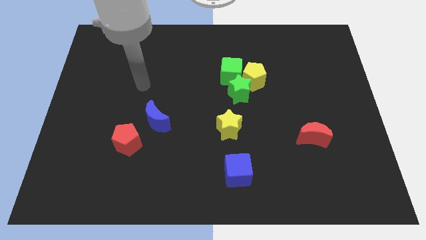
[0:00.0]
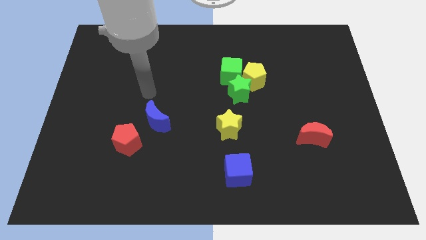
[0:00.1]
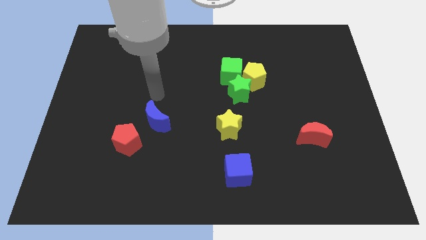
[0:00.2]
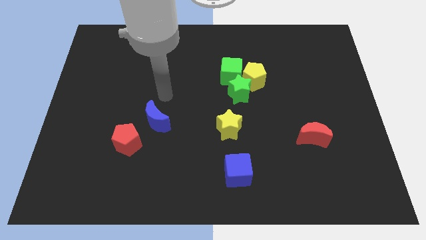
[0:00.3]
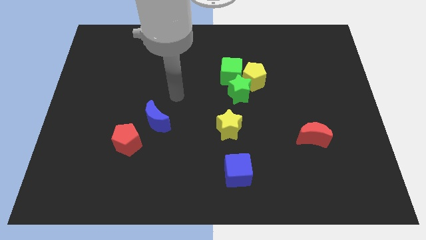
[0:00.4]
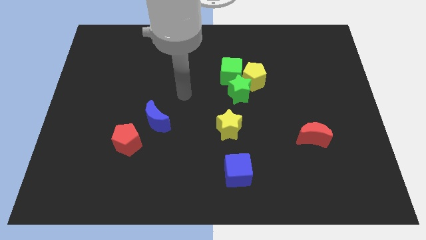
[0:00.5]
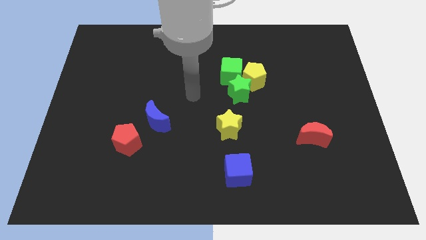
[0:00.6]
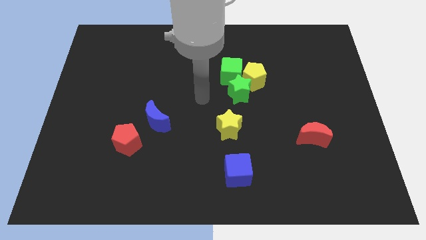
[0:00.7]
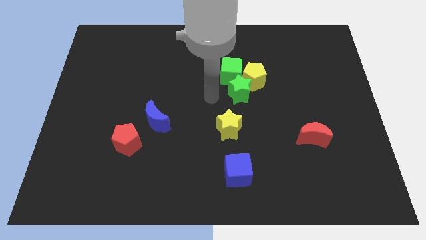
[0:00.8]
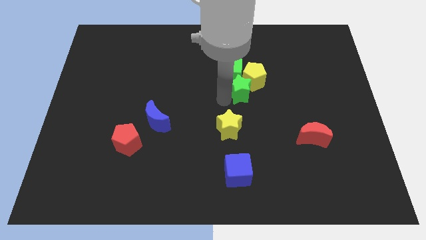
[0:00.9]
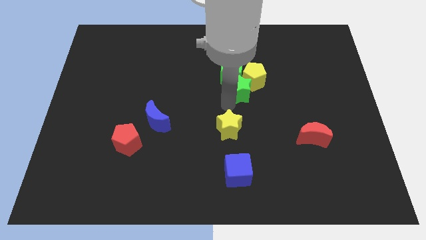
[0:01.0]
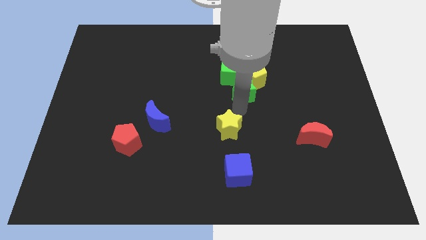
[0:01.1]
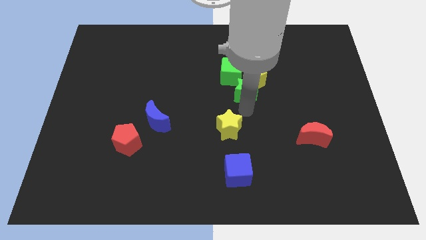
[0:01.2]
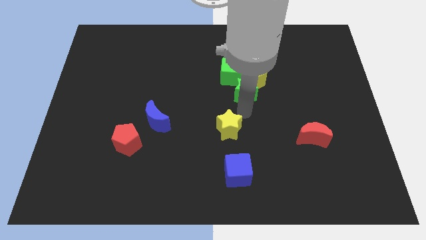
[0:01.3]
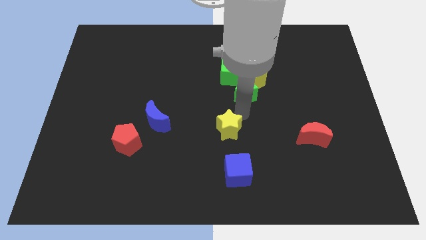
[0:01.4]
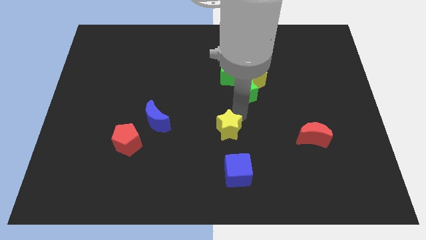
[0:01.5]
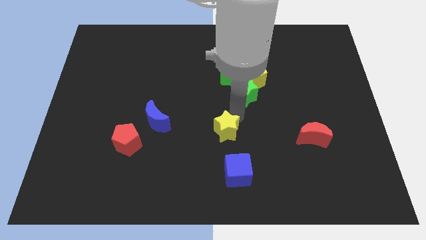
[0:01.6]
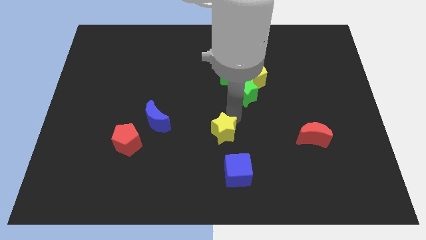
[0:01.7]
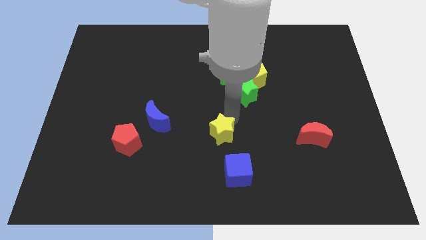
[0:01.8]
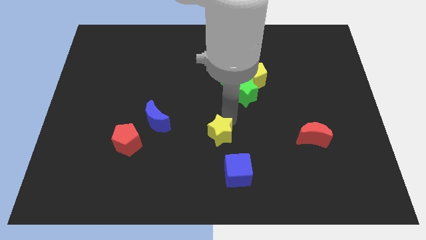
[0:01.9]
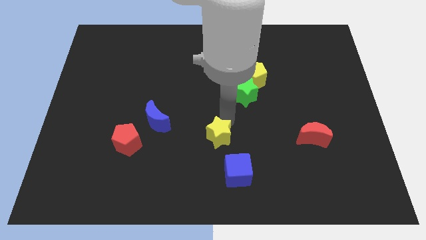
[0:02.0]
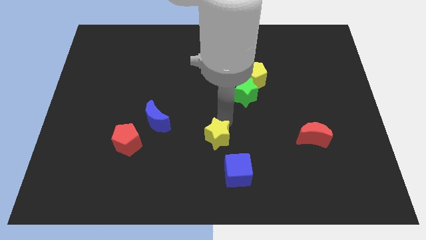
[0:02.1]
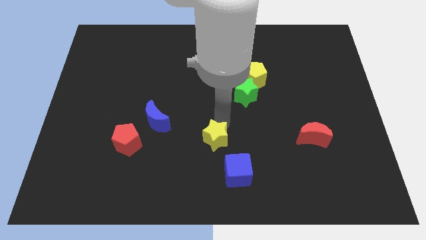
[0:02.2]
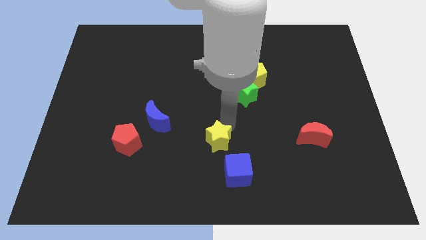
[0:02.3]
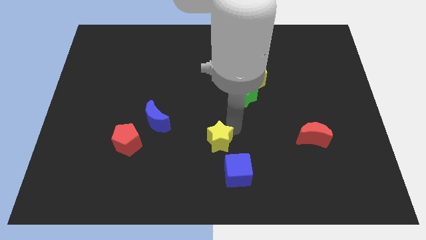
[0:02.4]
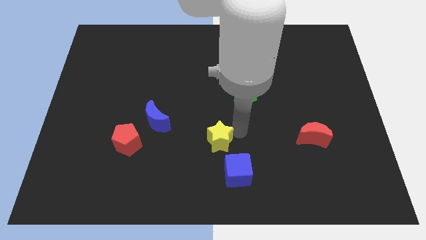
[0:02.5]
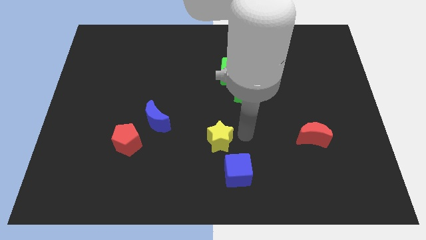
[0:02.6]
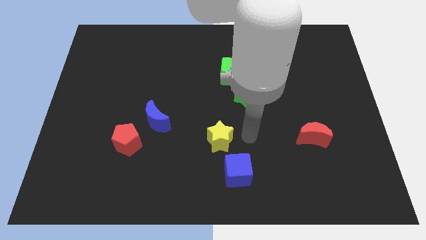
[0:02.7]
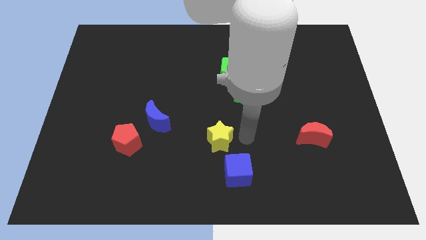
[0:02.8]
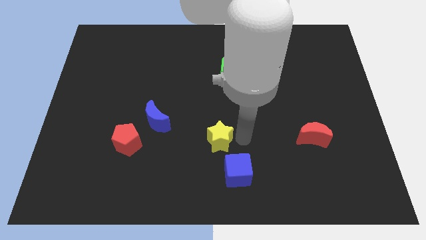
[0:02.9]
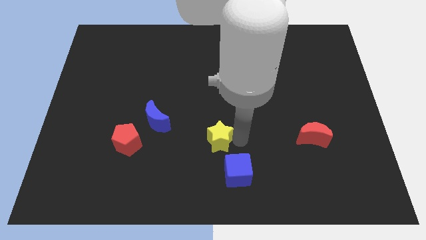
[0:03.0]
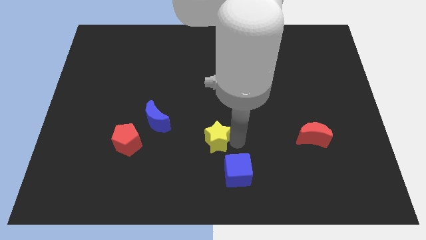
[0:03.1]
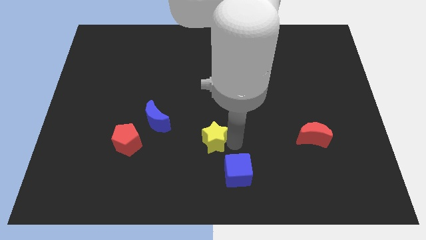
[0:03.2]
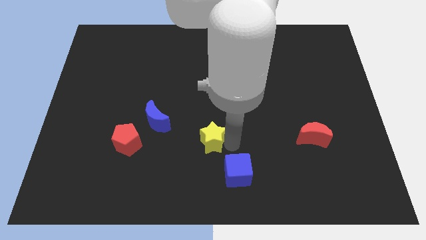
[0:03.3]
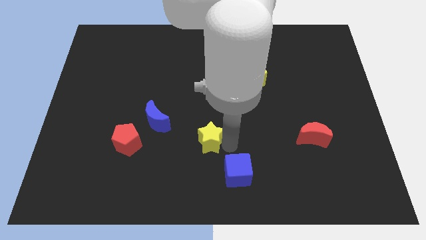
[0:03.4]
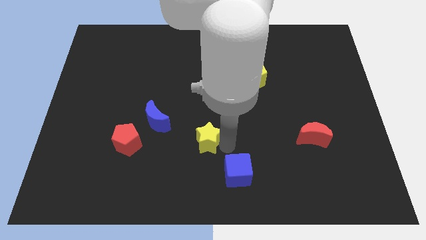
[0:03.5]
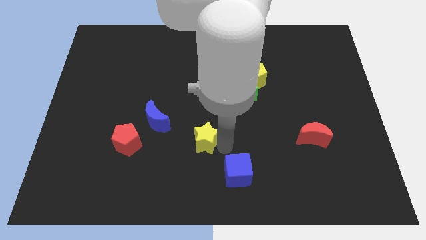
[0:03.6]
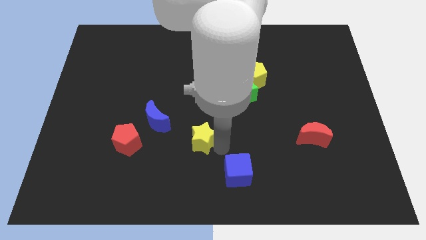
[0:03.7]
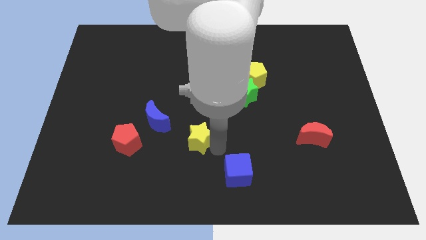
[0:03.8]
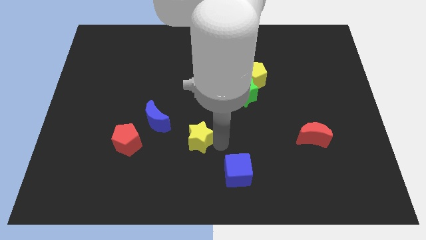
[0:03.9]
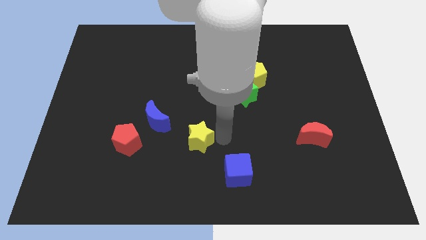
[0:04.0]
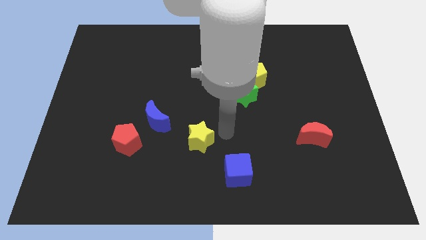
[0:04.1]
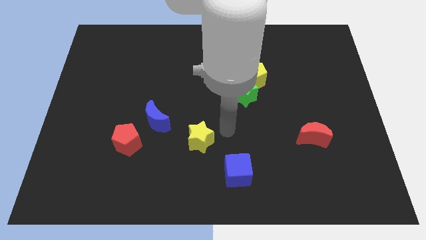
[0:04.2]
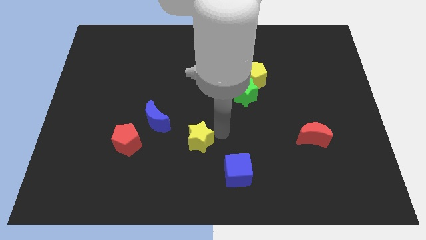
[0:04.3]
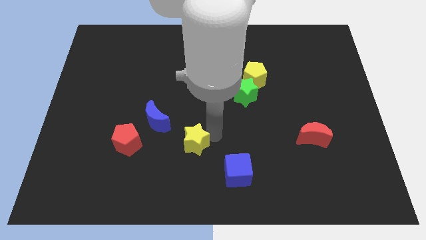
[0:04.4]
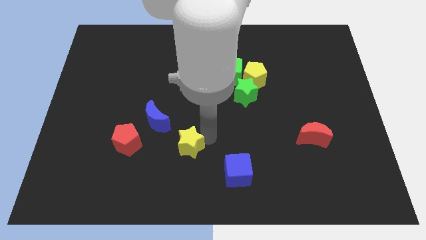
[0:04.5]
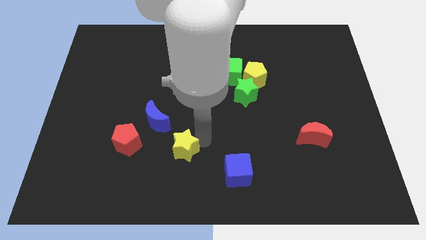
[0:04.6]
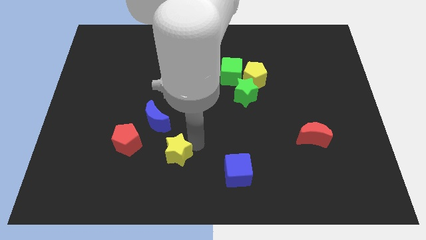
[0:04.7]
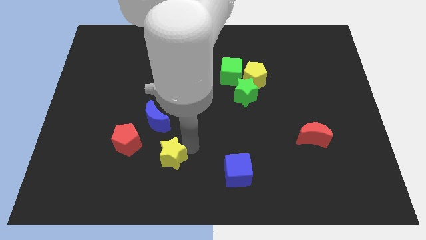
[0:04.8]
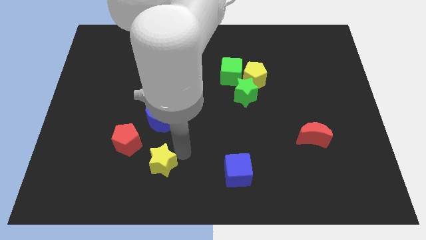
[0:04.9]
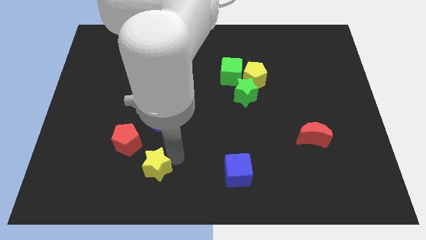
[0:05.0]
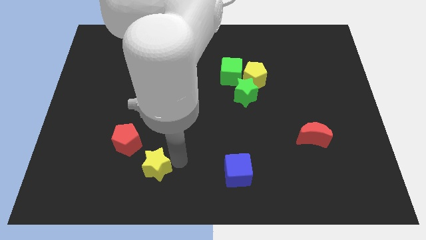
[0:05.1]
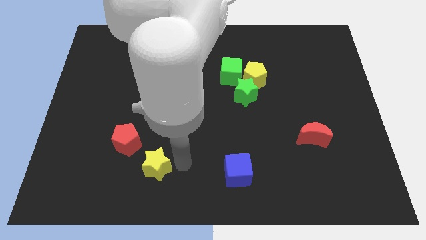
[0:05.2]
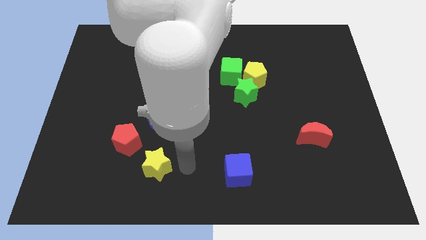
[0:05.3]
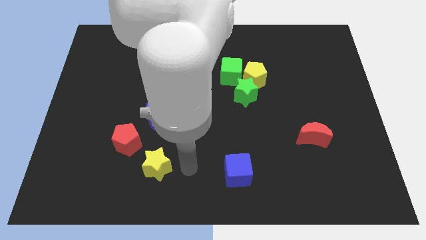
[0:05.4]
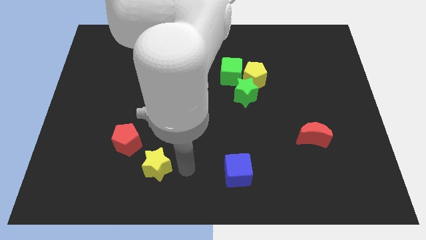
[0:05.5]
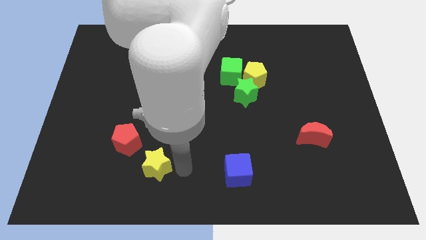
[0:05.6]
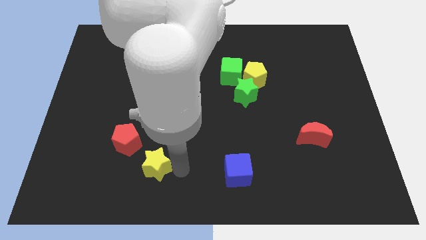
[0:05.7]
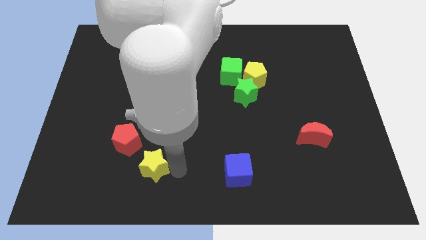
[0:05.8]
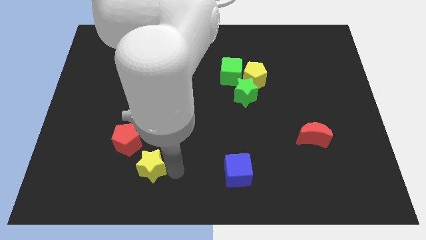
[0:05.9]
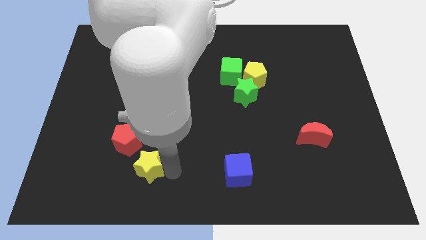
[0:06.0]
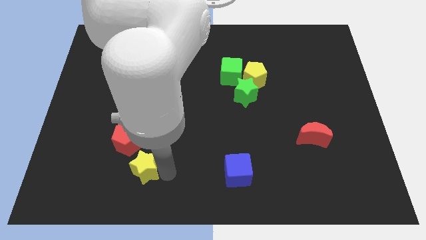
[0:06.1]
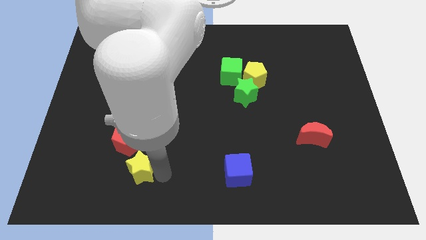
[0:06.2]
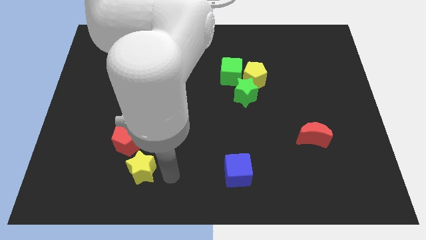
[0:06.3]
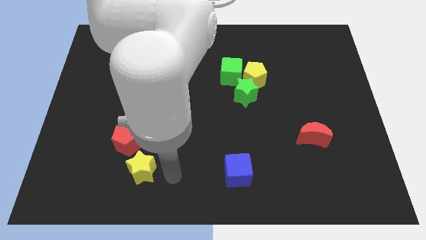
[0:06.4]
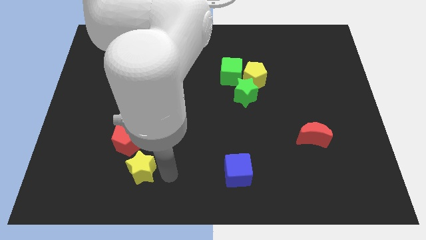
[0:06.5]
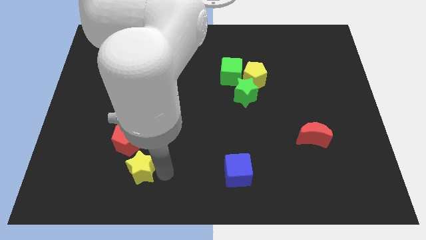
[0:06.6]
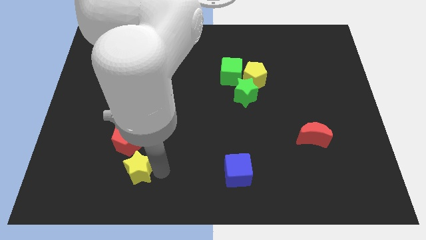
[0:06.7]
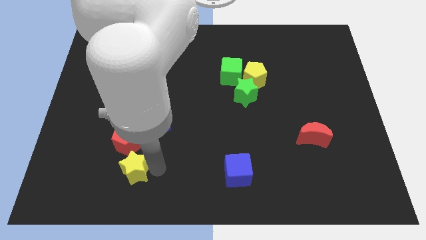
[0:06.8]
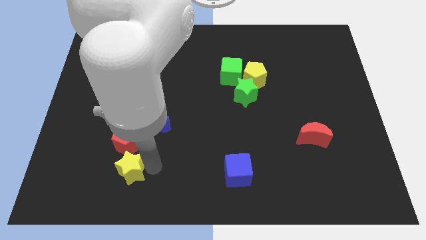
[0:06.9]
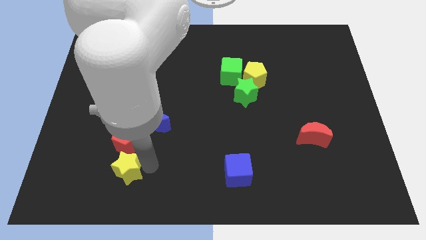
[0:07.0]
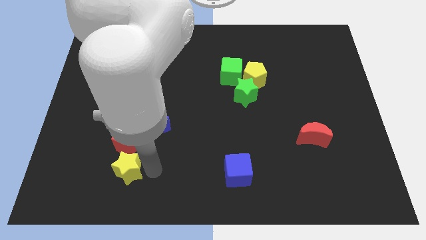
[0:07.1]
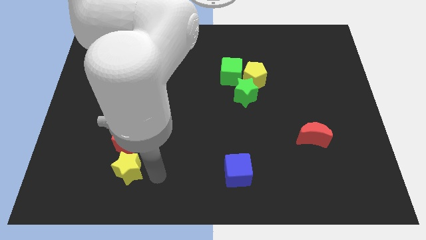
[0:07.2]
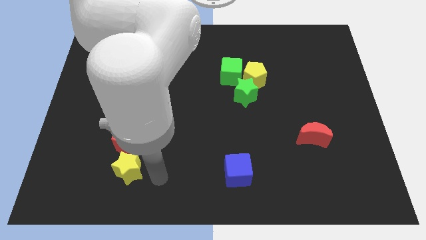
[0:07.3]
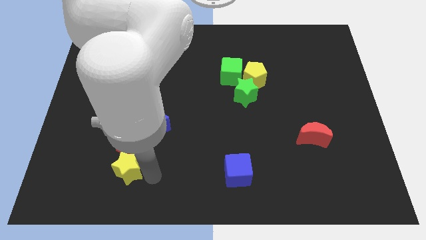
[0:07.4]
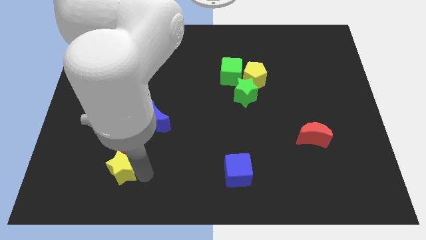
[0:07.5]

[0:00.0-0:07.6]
push the yellow star to the bottom left side of the red pentagon
